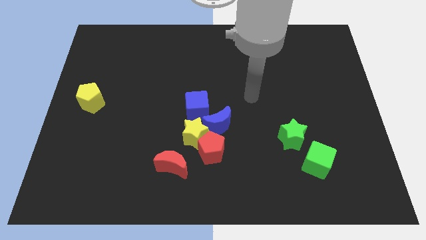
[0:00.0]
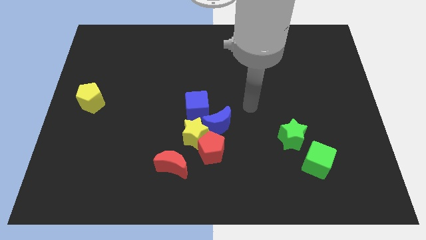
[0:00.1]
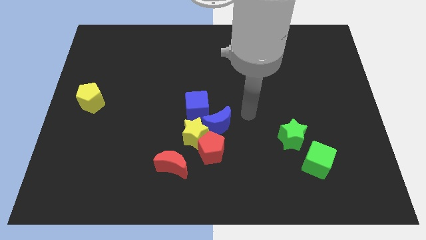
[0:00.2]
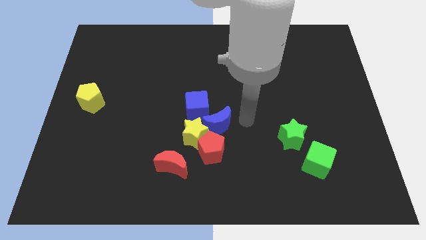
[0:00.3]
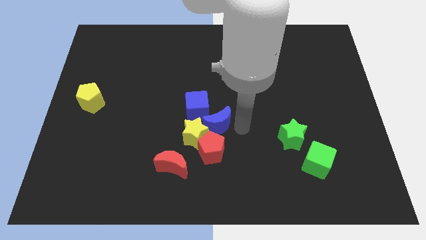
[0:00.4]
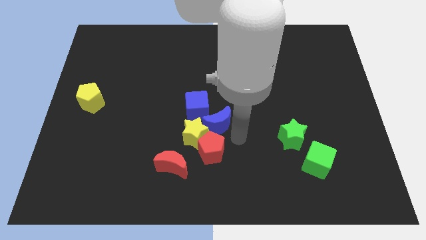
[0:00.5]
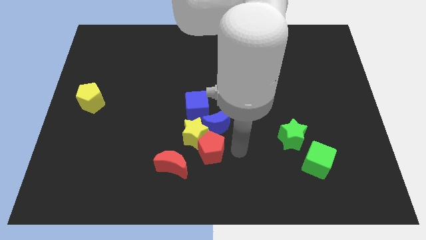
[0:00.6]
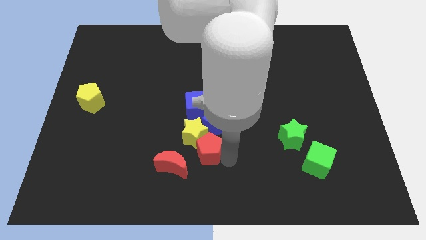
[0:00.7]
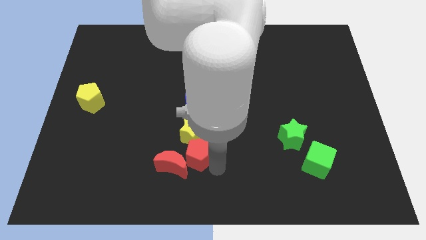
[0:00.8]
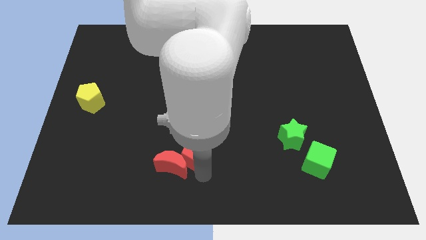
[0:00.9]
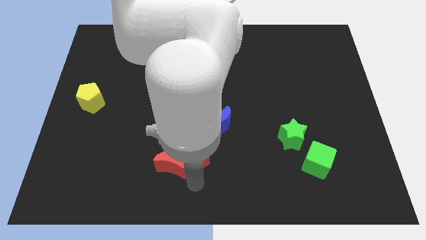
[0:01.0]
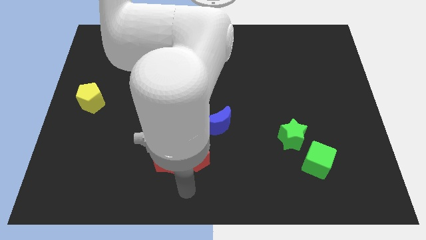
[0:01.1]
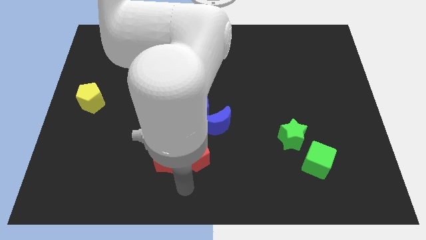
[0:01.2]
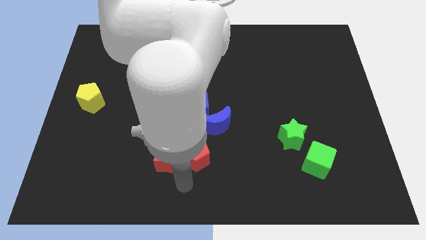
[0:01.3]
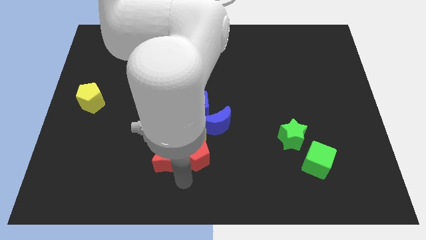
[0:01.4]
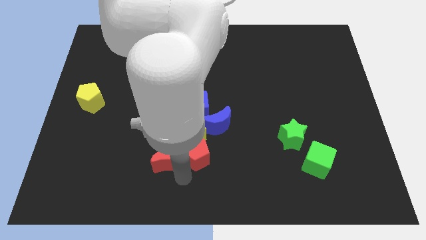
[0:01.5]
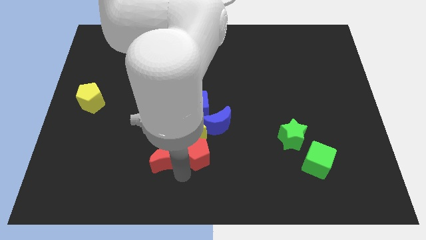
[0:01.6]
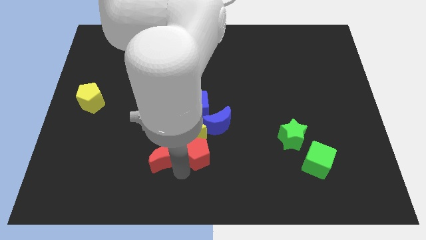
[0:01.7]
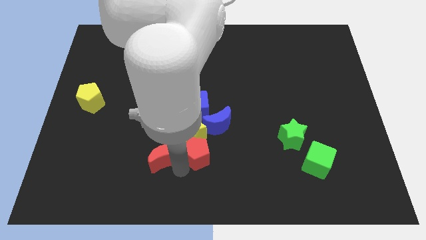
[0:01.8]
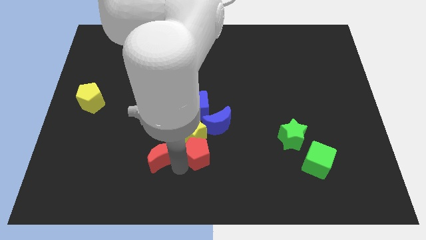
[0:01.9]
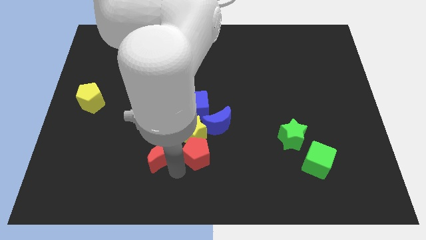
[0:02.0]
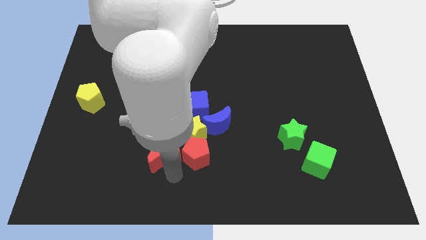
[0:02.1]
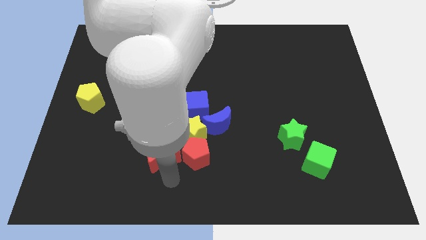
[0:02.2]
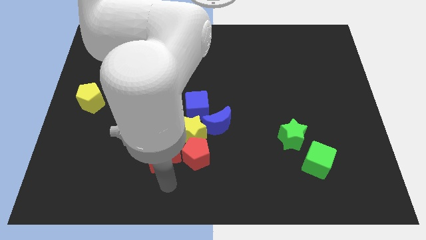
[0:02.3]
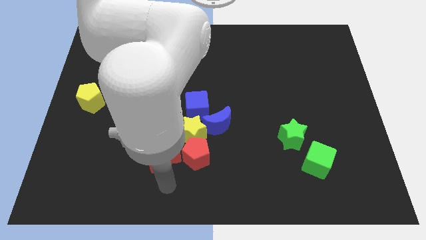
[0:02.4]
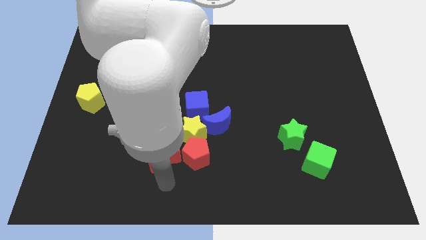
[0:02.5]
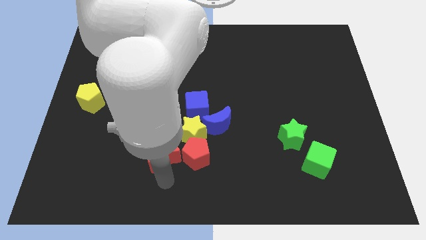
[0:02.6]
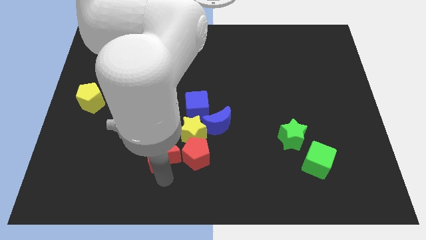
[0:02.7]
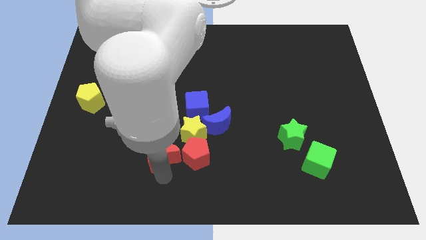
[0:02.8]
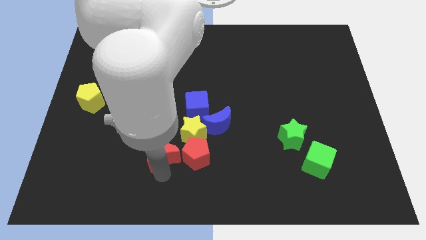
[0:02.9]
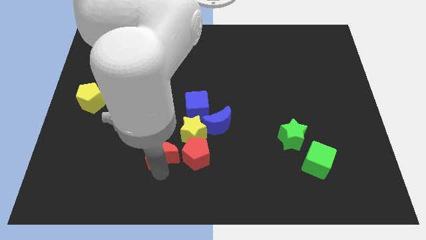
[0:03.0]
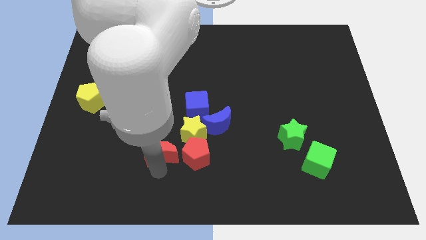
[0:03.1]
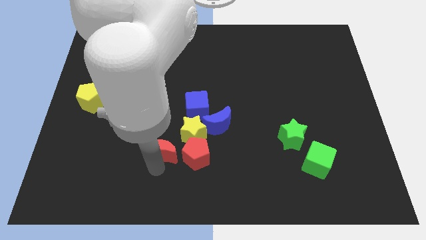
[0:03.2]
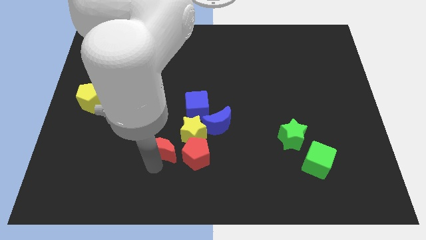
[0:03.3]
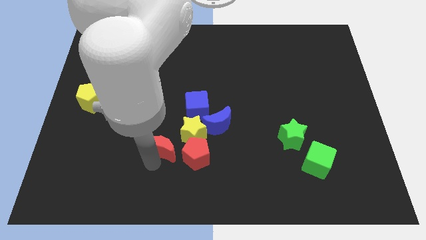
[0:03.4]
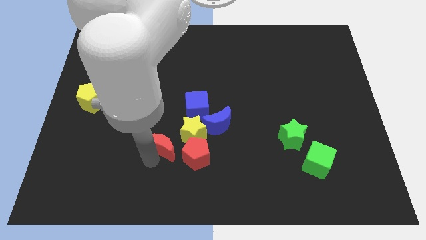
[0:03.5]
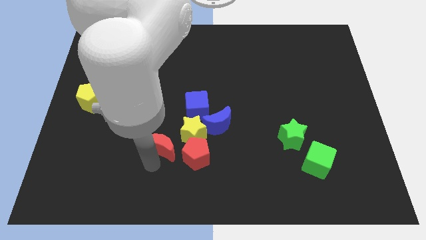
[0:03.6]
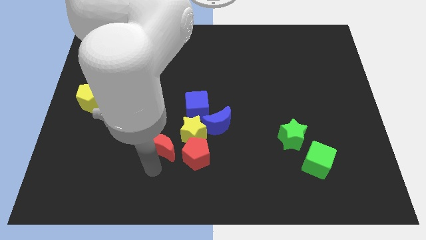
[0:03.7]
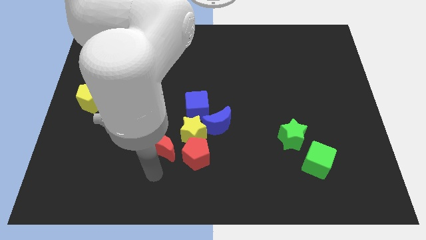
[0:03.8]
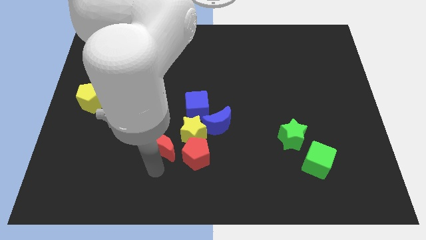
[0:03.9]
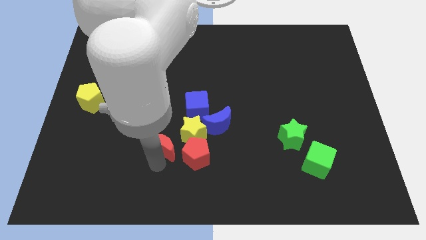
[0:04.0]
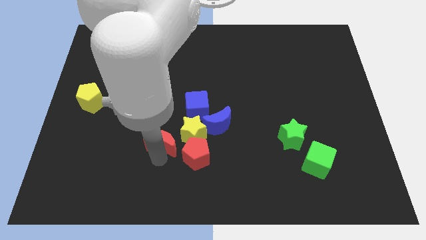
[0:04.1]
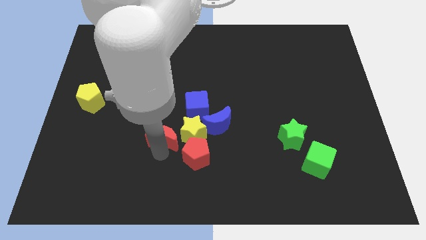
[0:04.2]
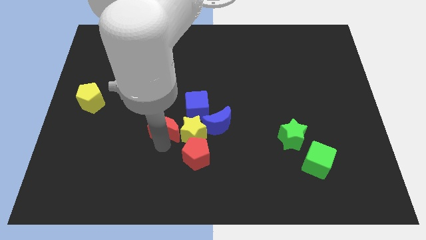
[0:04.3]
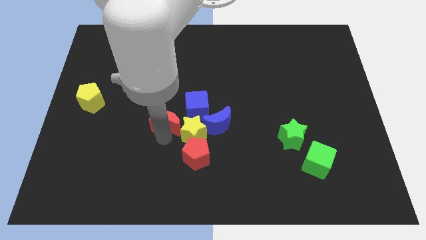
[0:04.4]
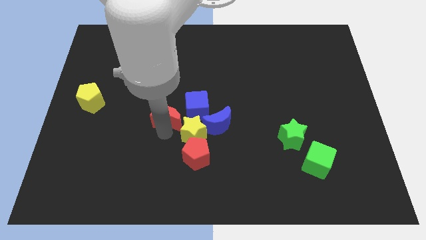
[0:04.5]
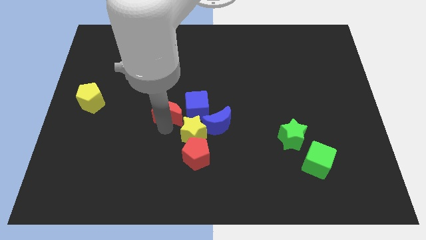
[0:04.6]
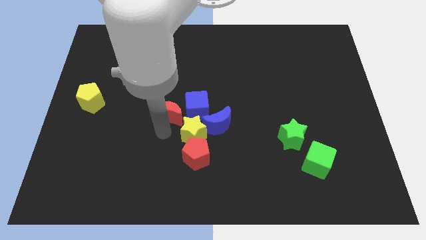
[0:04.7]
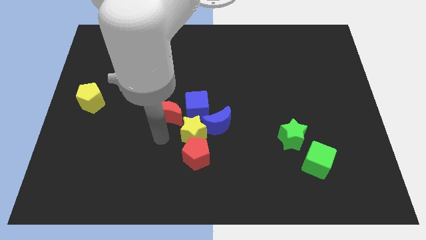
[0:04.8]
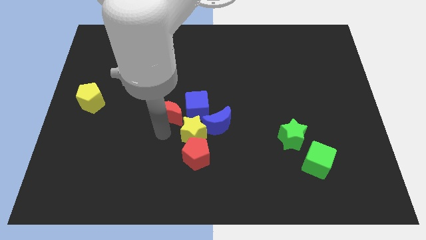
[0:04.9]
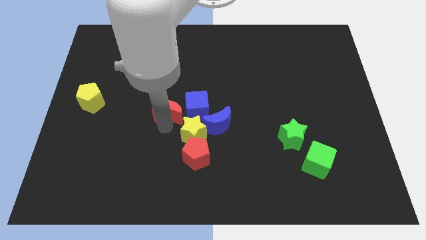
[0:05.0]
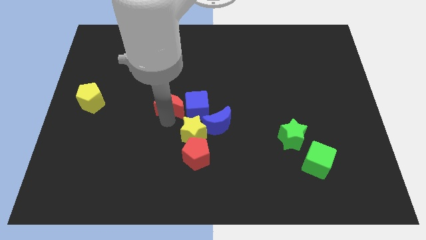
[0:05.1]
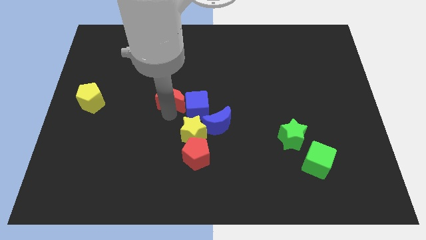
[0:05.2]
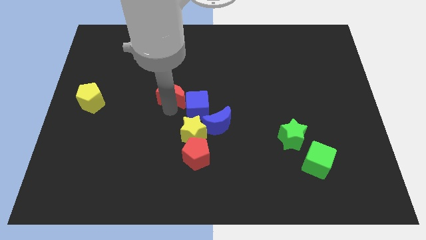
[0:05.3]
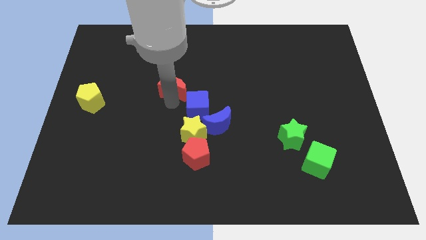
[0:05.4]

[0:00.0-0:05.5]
push the red moon up

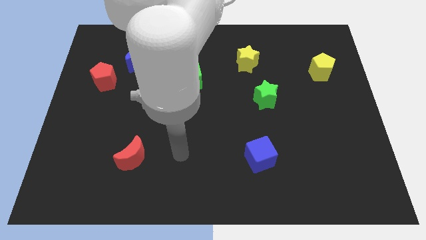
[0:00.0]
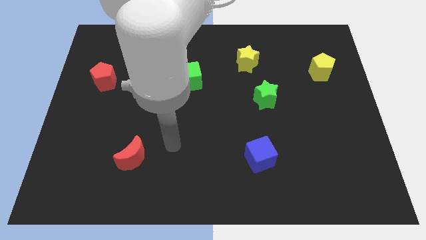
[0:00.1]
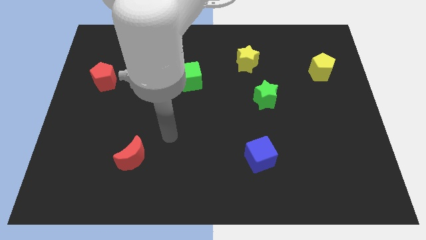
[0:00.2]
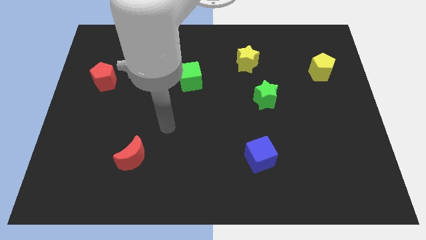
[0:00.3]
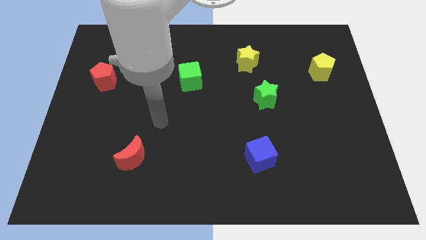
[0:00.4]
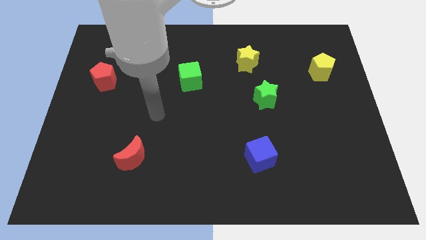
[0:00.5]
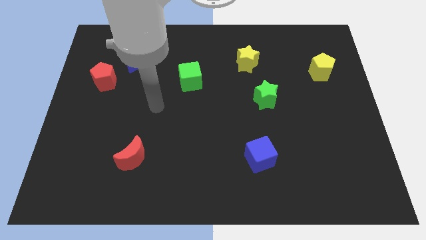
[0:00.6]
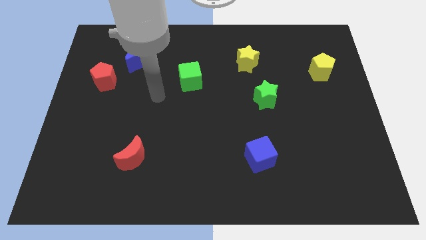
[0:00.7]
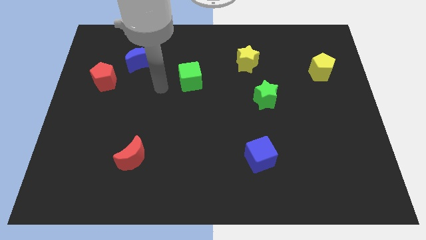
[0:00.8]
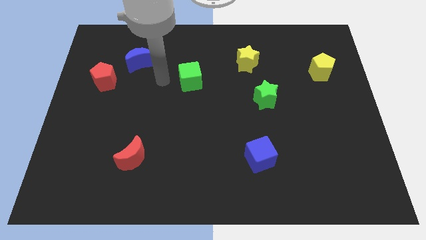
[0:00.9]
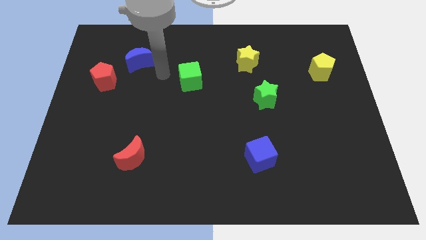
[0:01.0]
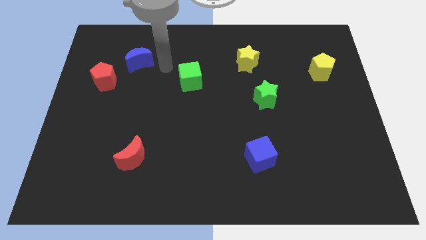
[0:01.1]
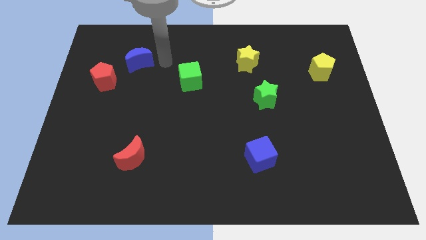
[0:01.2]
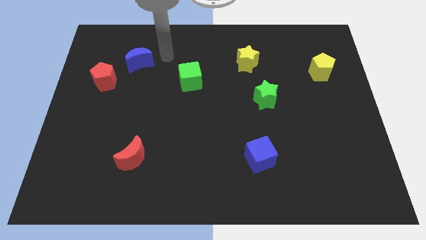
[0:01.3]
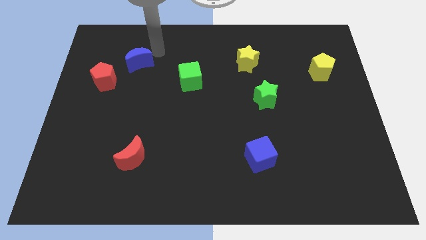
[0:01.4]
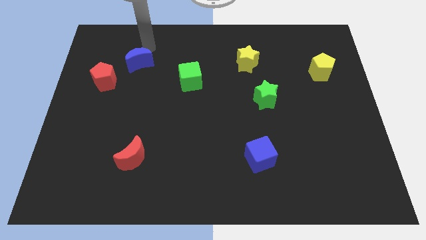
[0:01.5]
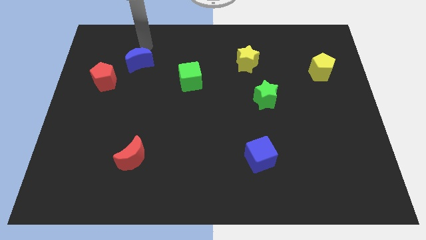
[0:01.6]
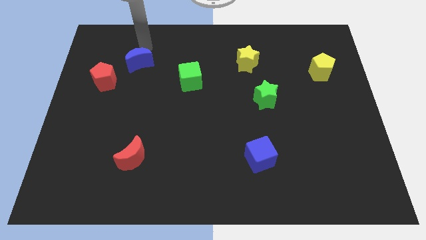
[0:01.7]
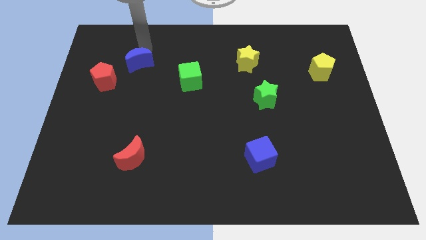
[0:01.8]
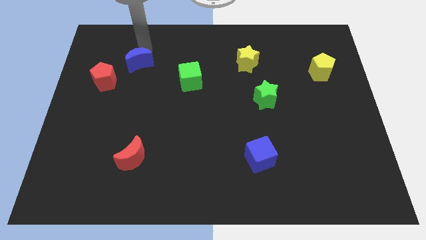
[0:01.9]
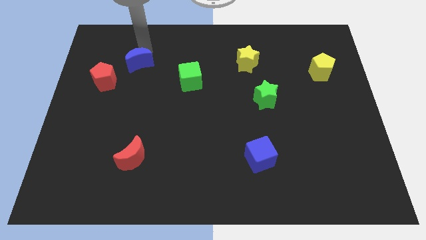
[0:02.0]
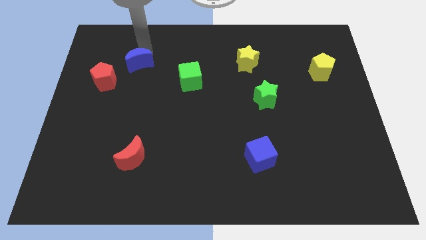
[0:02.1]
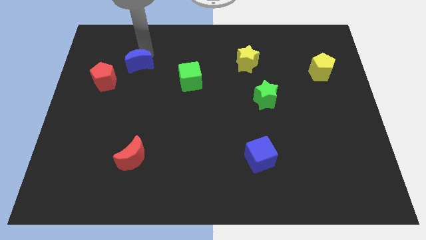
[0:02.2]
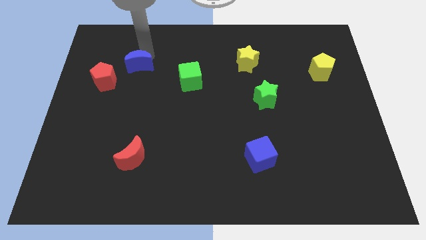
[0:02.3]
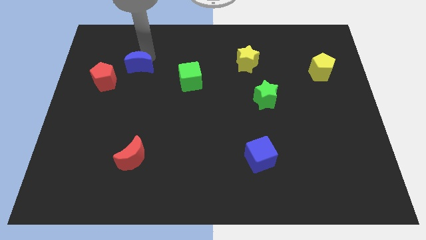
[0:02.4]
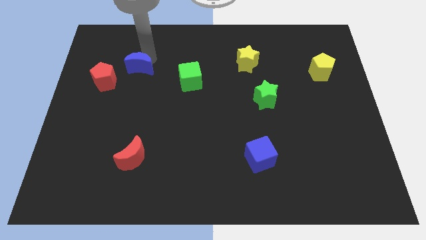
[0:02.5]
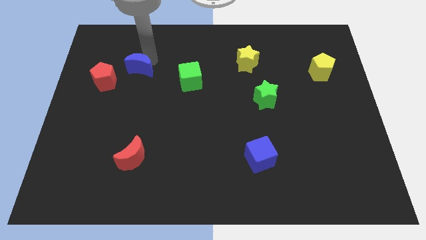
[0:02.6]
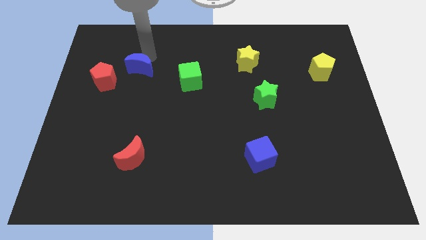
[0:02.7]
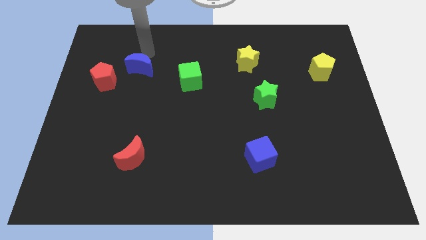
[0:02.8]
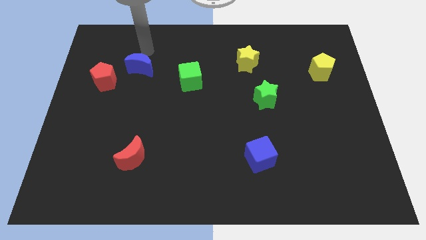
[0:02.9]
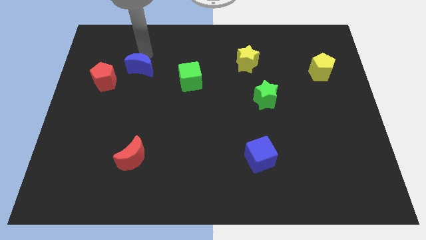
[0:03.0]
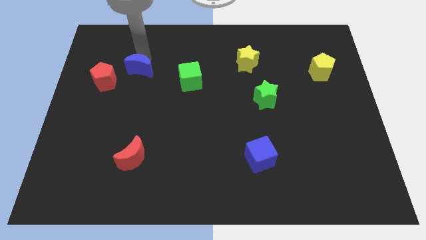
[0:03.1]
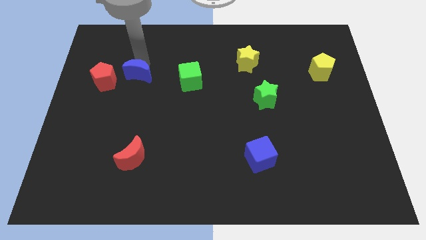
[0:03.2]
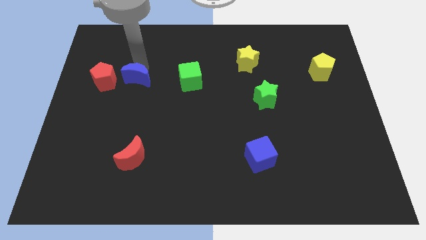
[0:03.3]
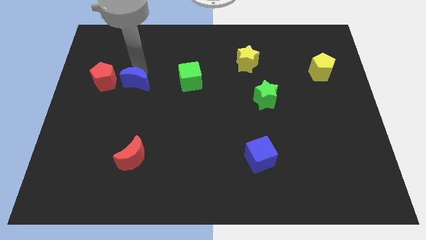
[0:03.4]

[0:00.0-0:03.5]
push the blue moon down somewhat
